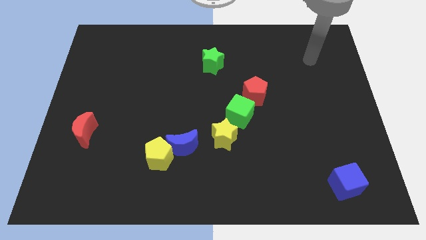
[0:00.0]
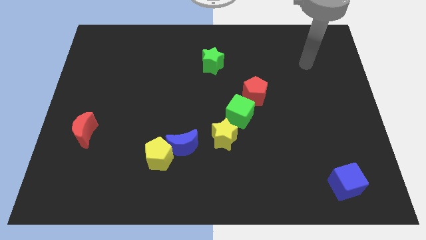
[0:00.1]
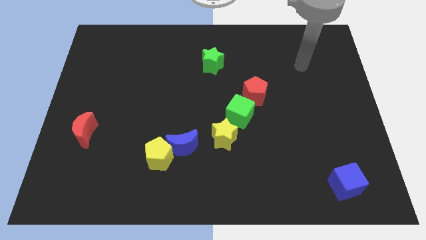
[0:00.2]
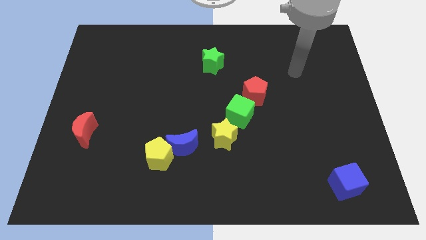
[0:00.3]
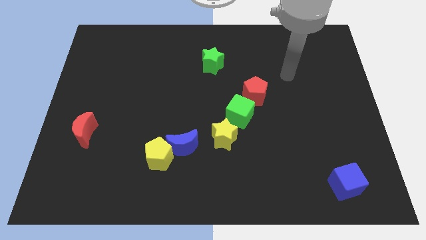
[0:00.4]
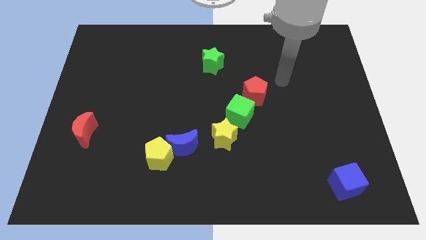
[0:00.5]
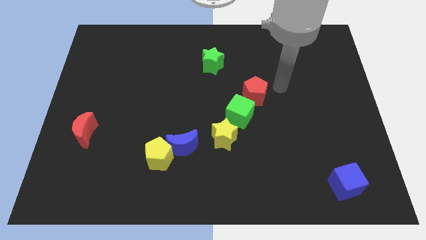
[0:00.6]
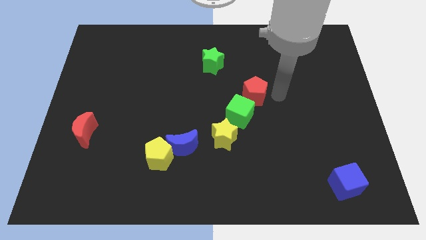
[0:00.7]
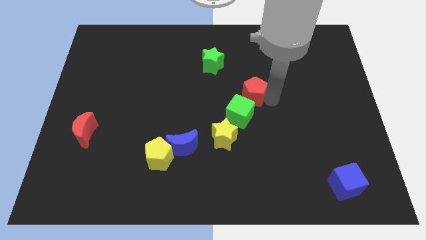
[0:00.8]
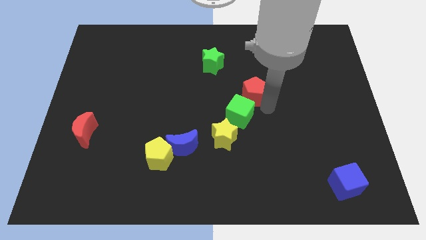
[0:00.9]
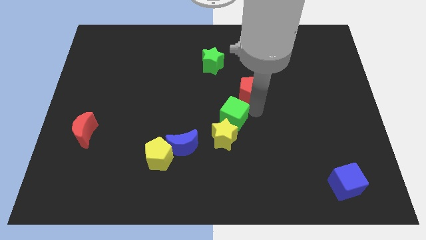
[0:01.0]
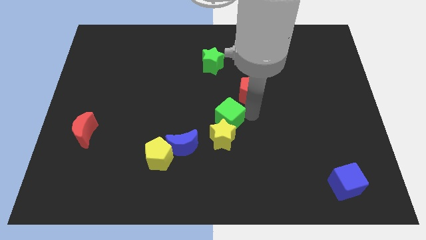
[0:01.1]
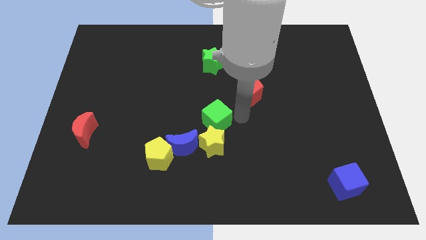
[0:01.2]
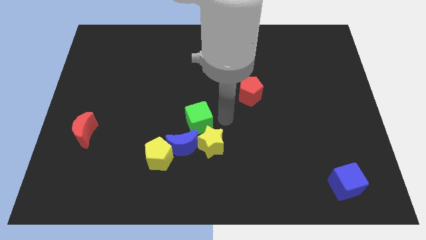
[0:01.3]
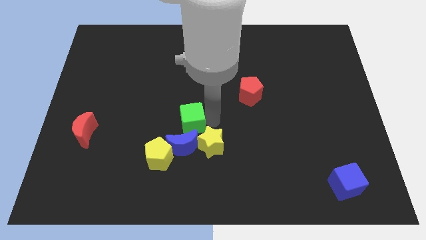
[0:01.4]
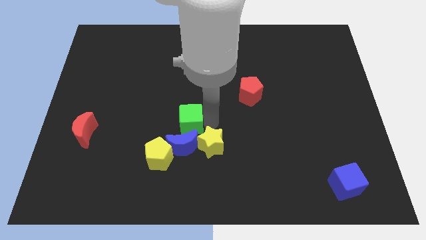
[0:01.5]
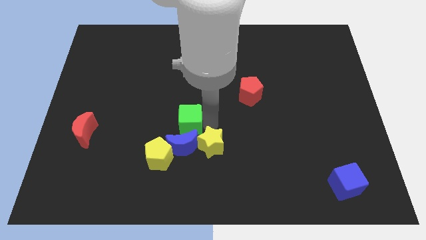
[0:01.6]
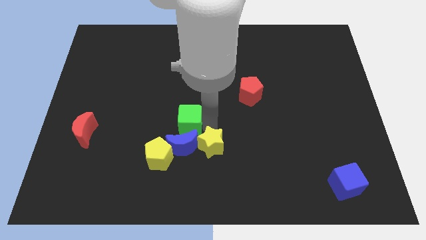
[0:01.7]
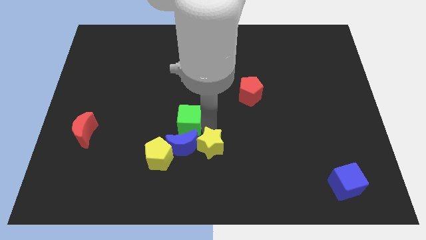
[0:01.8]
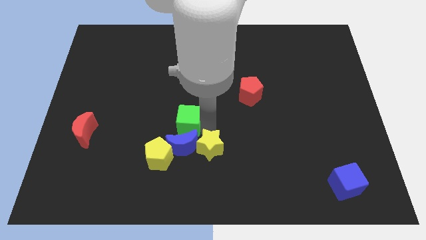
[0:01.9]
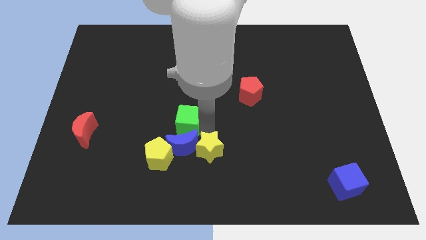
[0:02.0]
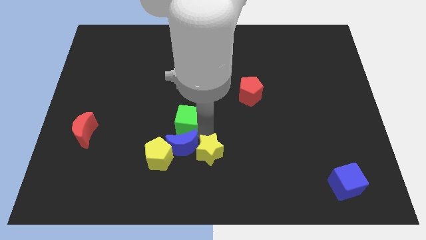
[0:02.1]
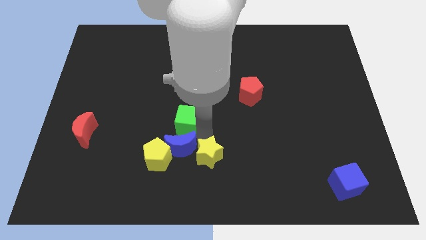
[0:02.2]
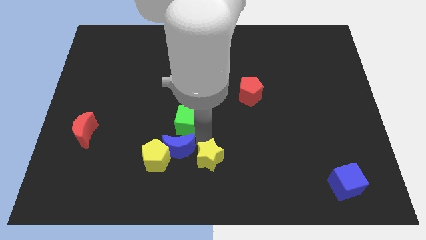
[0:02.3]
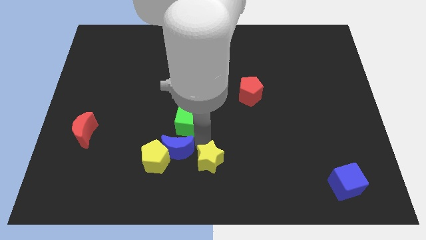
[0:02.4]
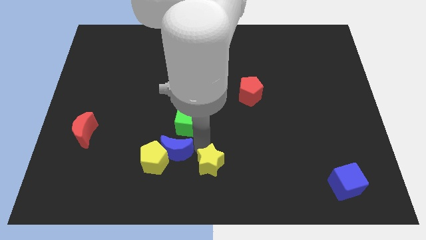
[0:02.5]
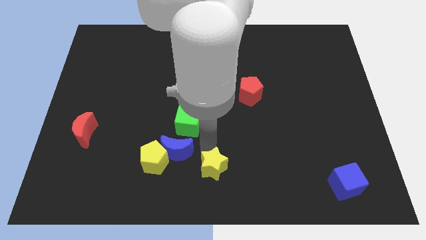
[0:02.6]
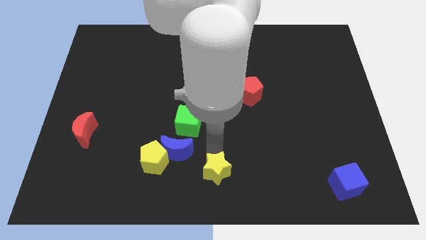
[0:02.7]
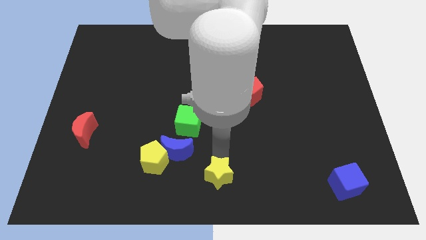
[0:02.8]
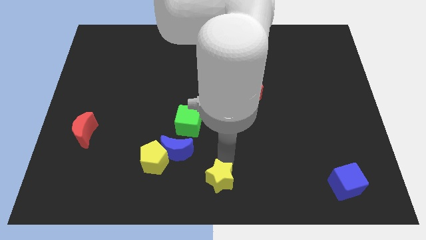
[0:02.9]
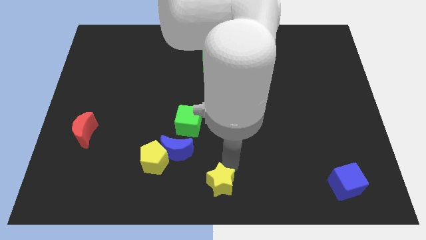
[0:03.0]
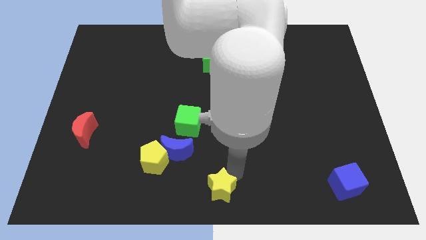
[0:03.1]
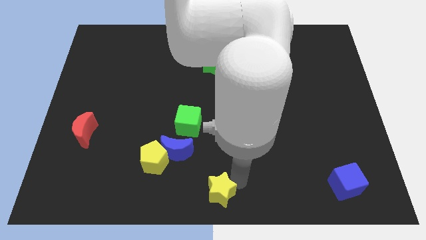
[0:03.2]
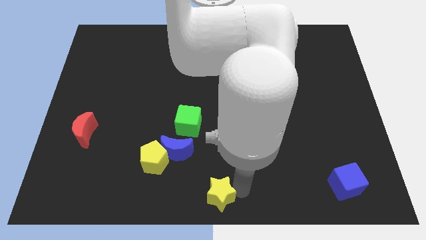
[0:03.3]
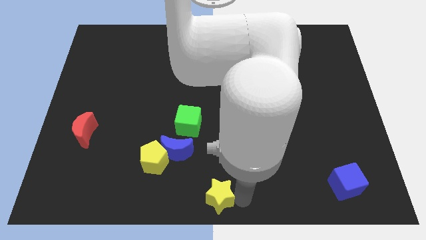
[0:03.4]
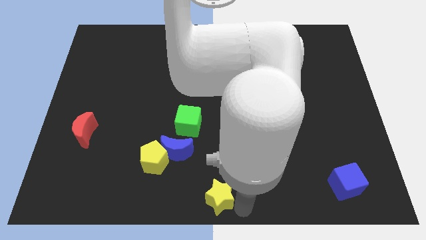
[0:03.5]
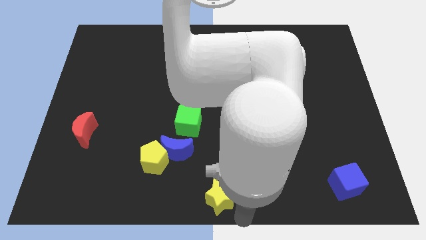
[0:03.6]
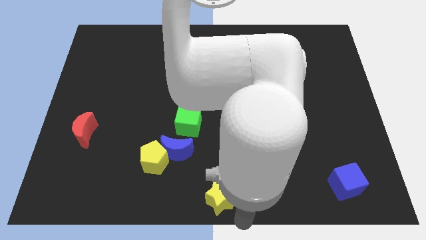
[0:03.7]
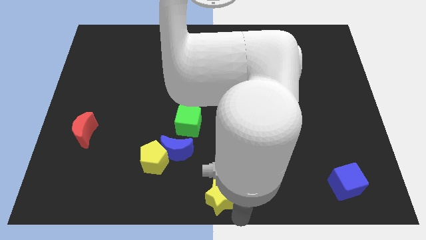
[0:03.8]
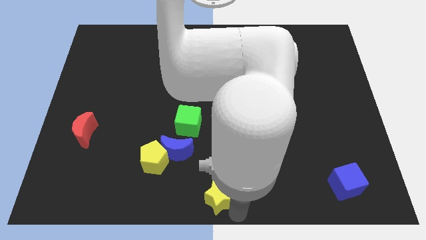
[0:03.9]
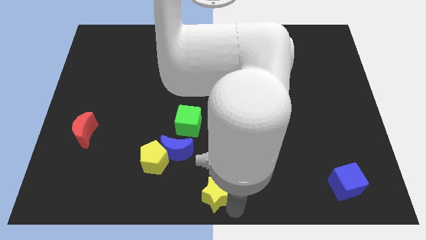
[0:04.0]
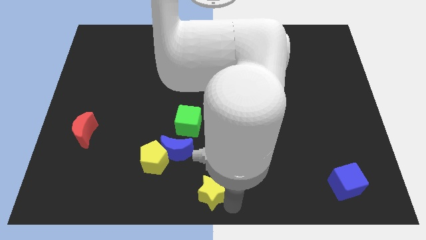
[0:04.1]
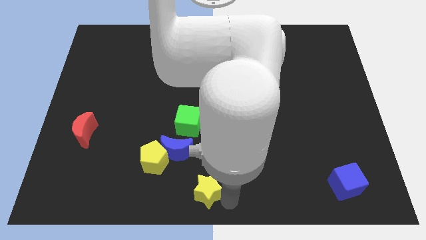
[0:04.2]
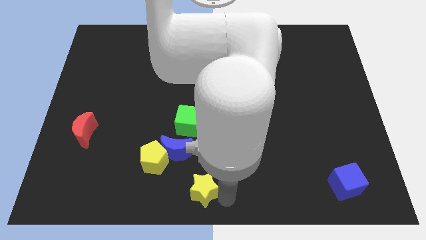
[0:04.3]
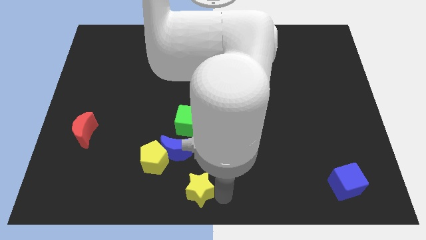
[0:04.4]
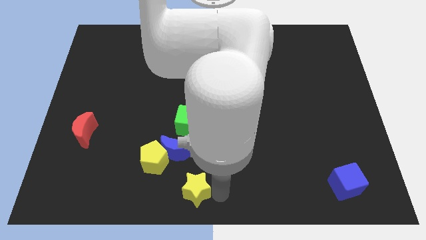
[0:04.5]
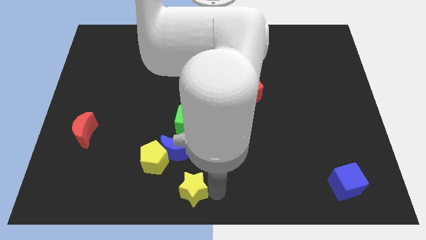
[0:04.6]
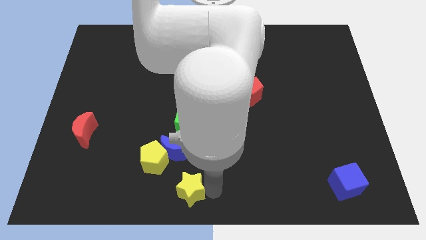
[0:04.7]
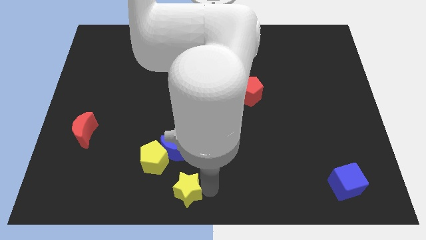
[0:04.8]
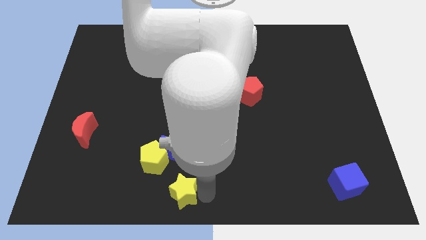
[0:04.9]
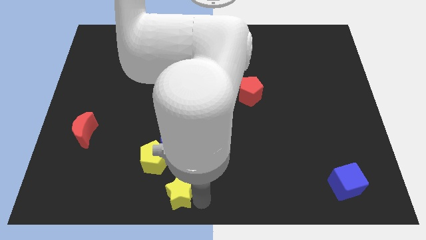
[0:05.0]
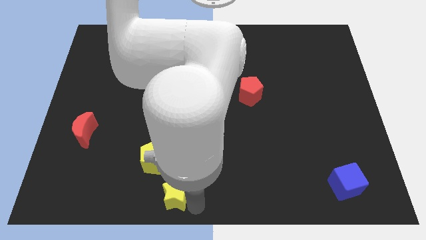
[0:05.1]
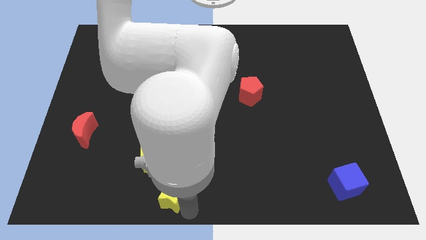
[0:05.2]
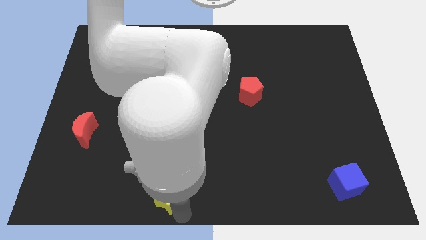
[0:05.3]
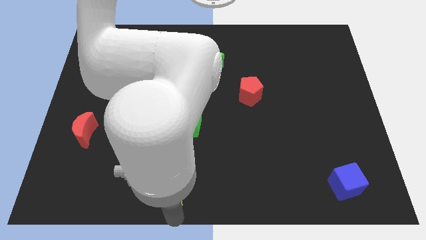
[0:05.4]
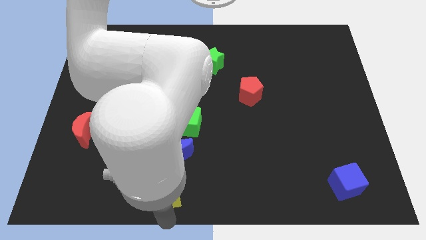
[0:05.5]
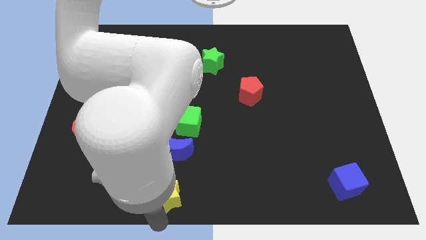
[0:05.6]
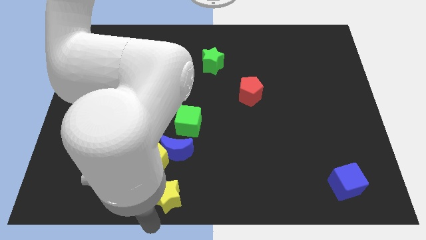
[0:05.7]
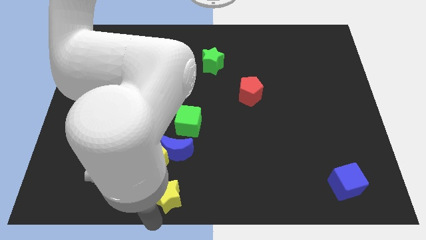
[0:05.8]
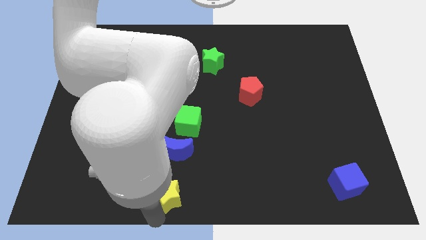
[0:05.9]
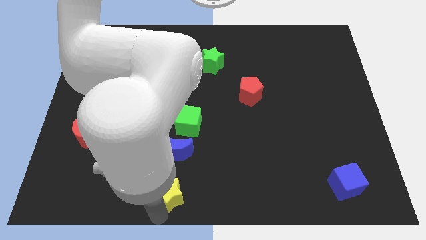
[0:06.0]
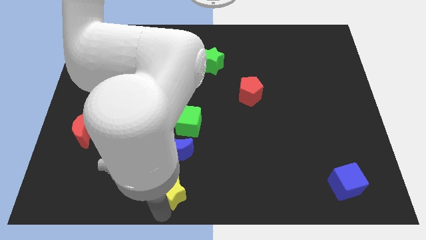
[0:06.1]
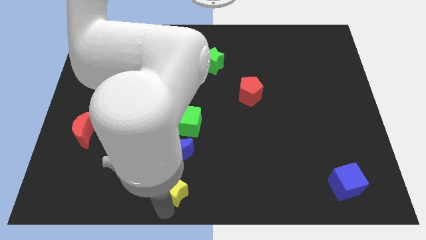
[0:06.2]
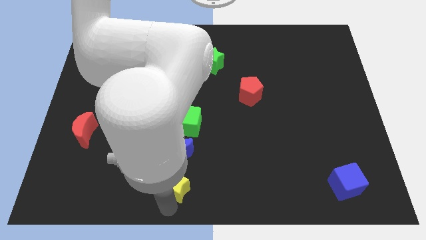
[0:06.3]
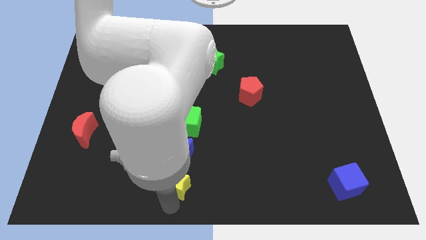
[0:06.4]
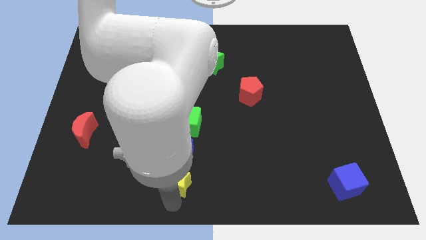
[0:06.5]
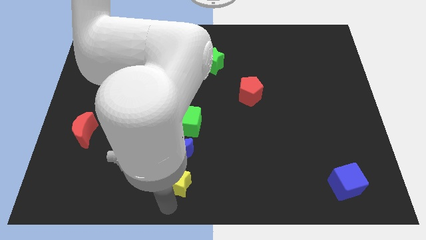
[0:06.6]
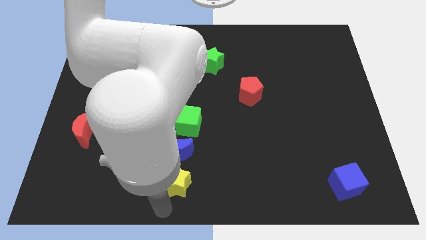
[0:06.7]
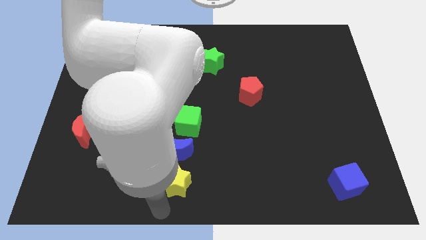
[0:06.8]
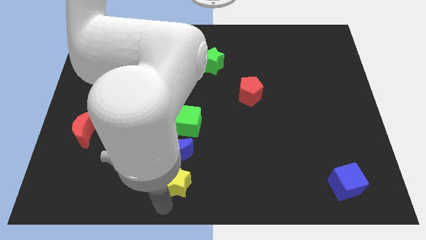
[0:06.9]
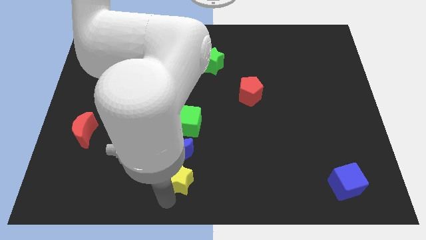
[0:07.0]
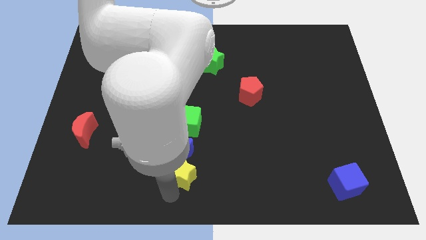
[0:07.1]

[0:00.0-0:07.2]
push the yellow star diagonally down and to the left of the blue moon
